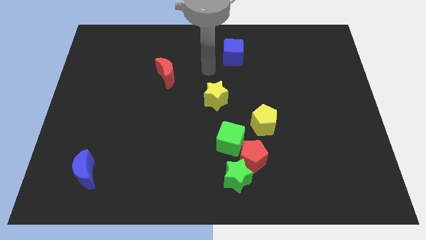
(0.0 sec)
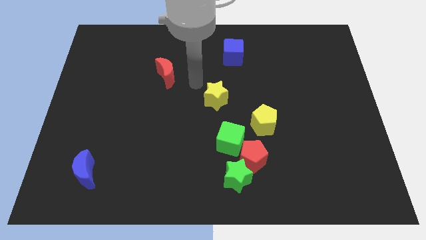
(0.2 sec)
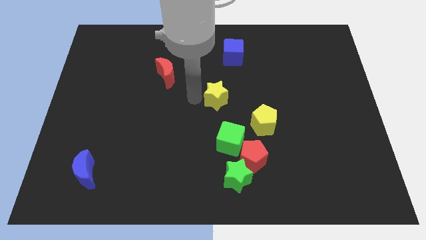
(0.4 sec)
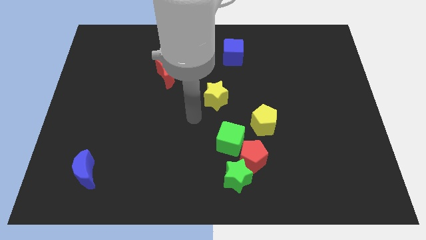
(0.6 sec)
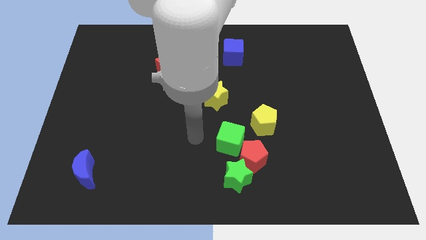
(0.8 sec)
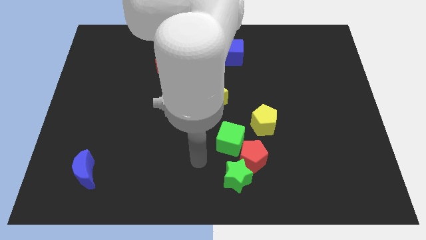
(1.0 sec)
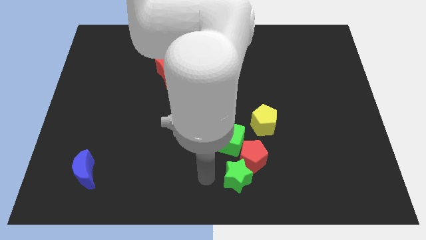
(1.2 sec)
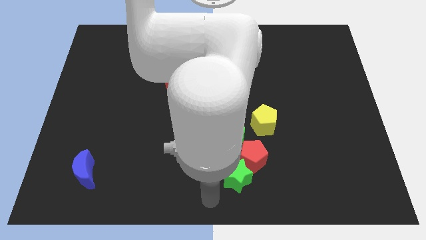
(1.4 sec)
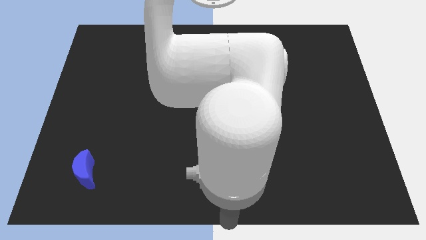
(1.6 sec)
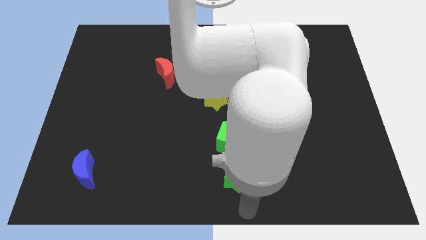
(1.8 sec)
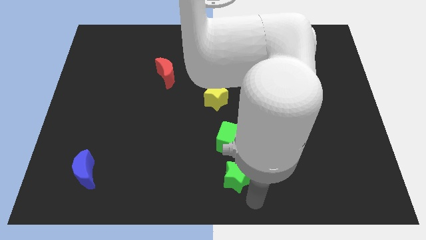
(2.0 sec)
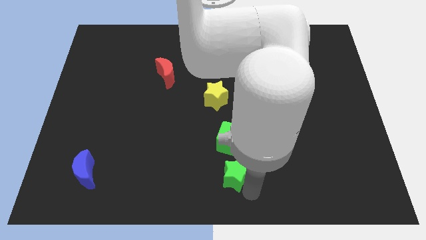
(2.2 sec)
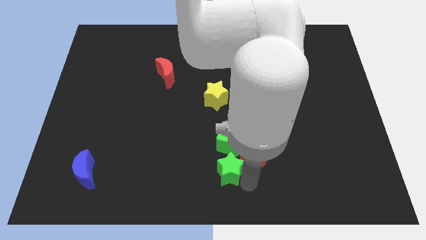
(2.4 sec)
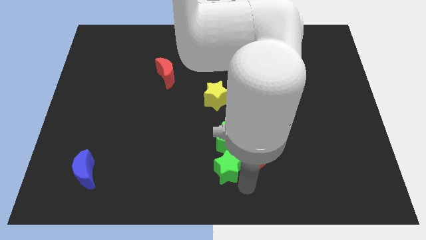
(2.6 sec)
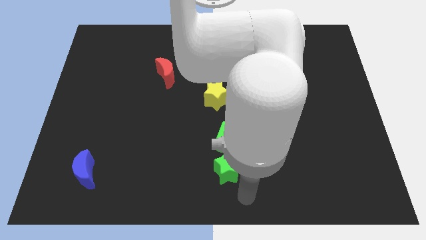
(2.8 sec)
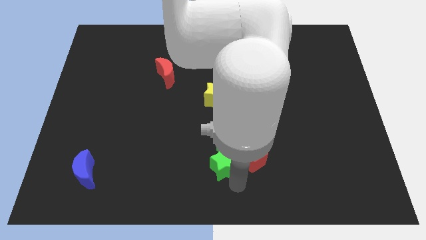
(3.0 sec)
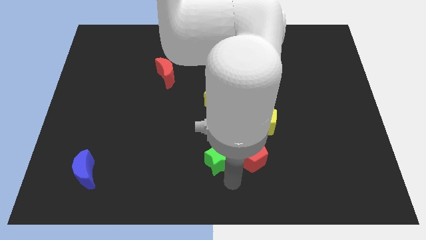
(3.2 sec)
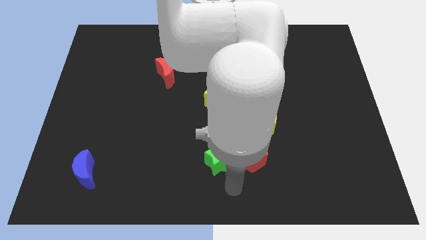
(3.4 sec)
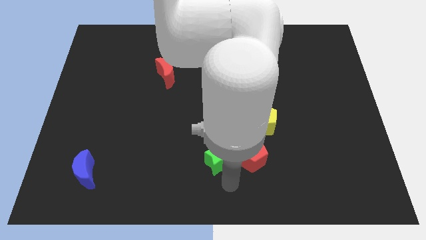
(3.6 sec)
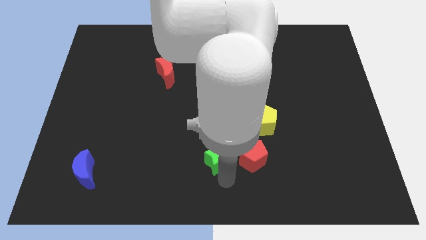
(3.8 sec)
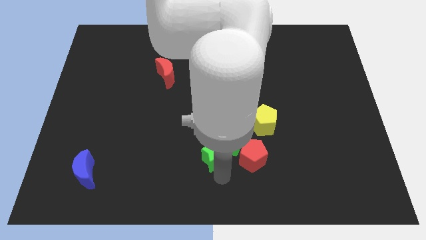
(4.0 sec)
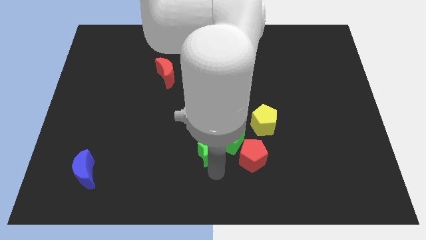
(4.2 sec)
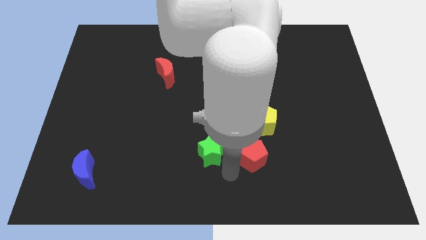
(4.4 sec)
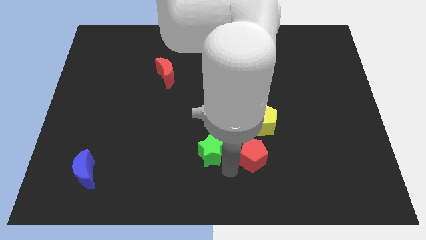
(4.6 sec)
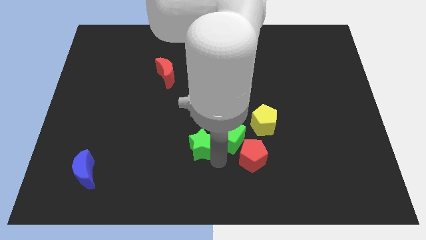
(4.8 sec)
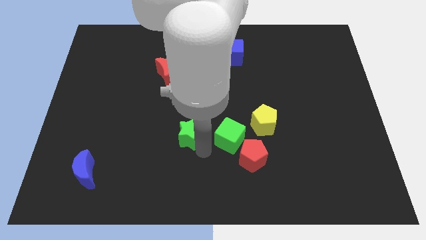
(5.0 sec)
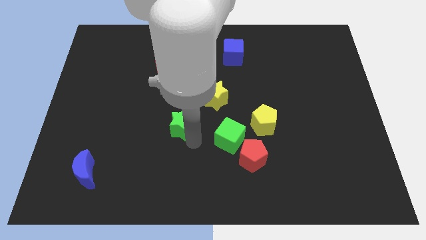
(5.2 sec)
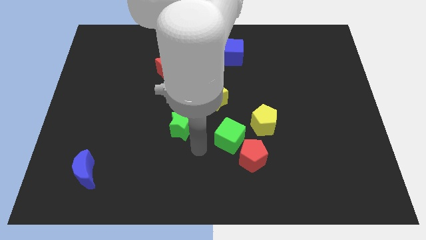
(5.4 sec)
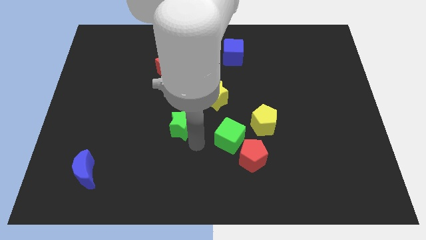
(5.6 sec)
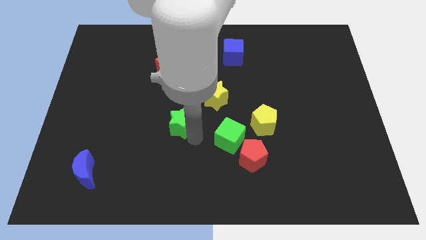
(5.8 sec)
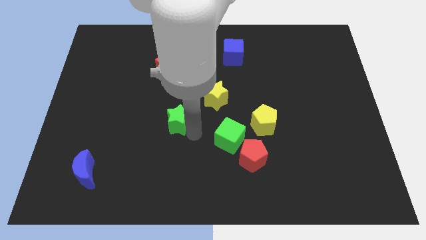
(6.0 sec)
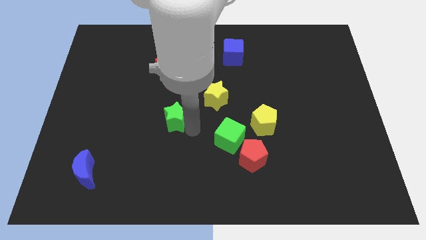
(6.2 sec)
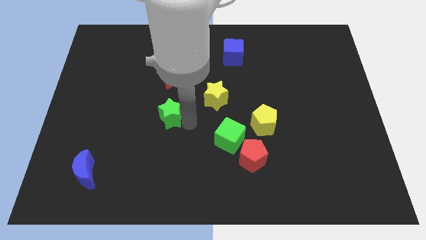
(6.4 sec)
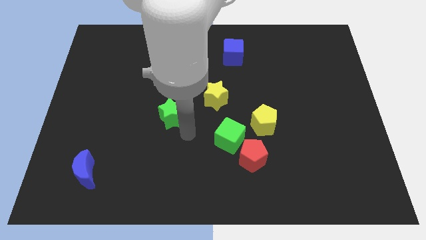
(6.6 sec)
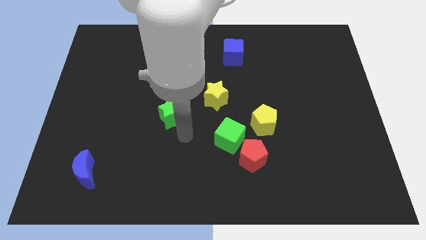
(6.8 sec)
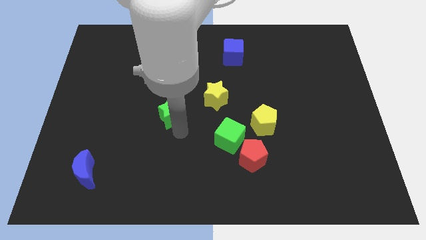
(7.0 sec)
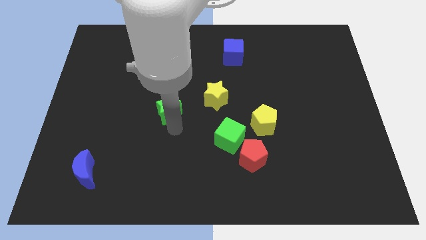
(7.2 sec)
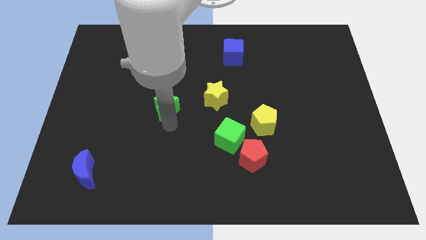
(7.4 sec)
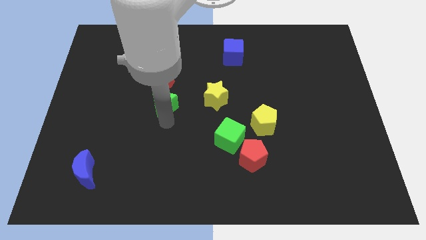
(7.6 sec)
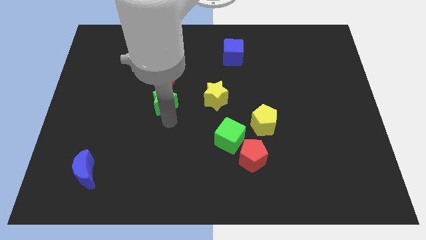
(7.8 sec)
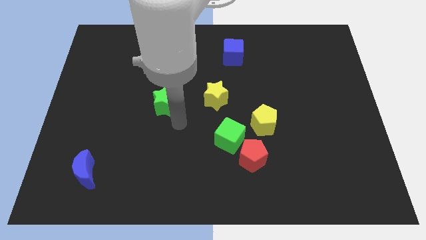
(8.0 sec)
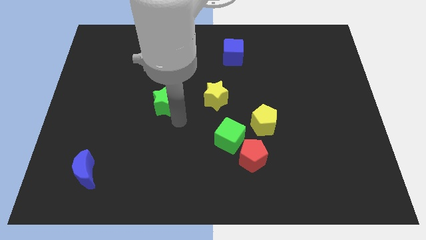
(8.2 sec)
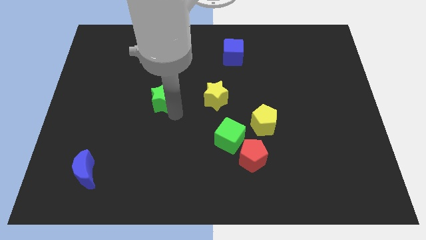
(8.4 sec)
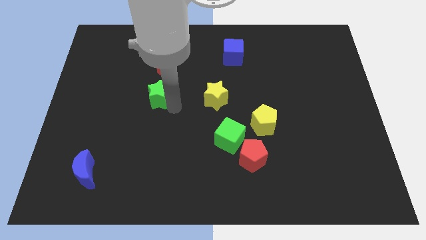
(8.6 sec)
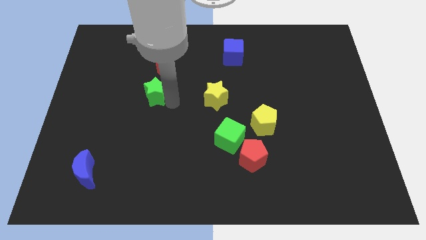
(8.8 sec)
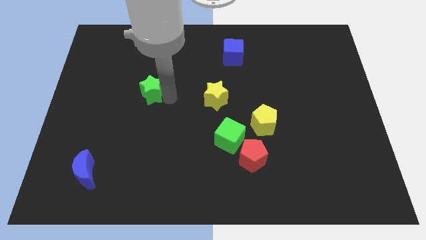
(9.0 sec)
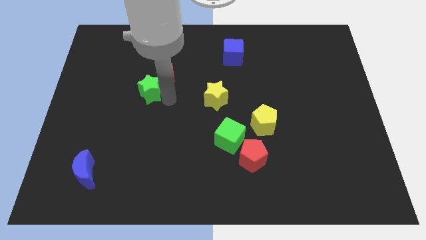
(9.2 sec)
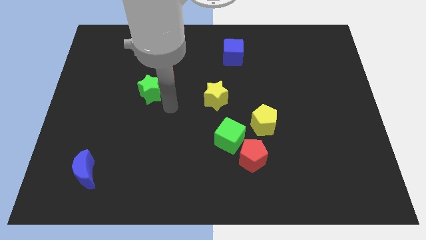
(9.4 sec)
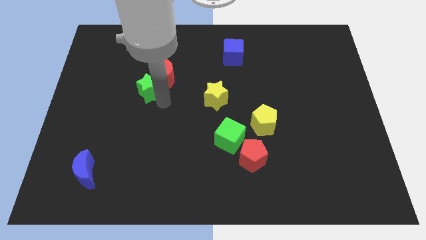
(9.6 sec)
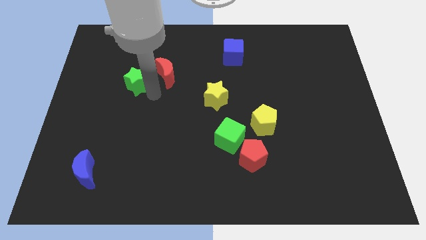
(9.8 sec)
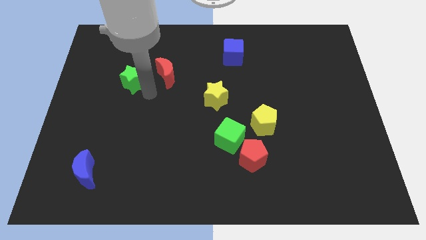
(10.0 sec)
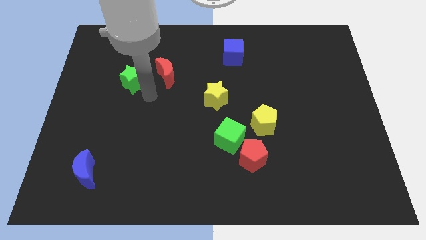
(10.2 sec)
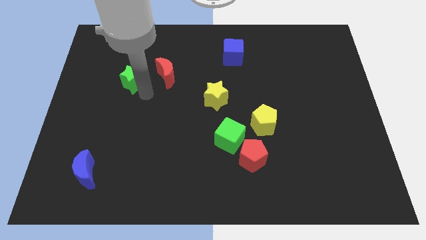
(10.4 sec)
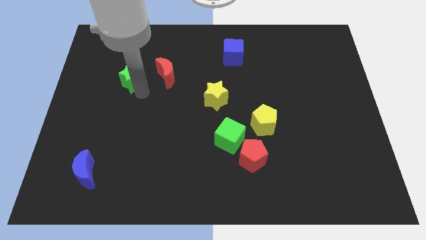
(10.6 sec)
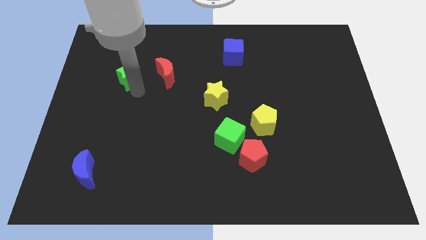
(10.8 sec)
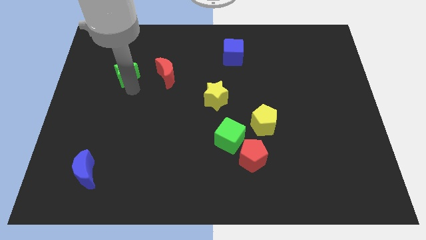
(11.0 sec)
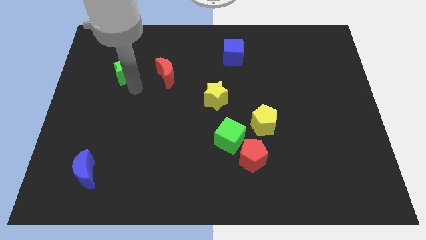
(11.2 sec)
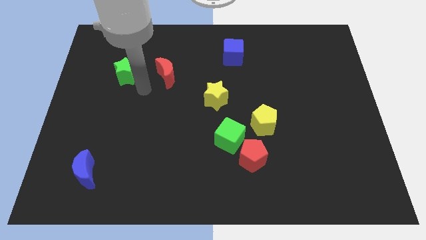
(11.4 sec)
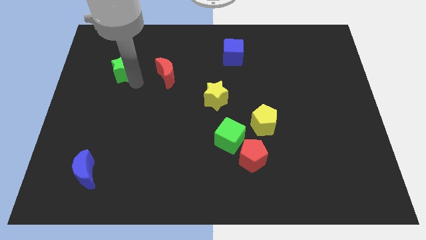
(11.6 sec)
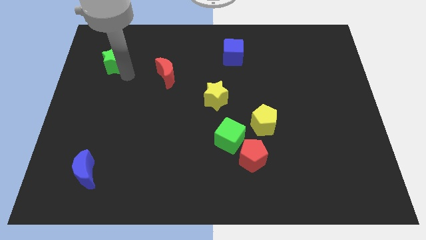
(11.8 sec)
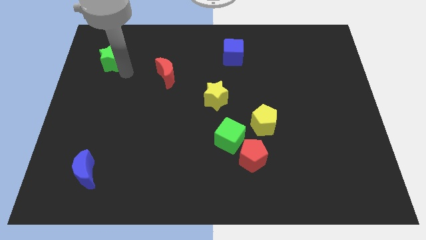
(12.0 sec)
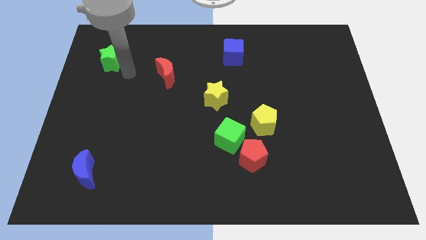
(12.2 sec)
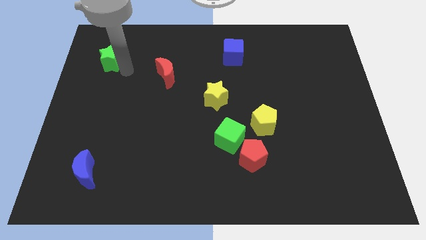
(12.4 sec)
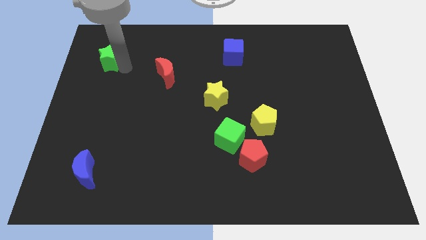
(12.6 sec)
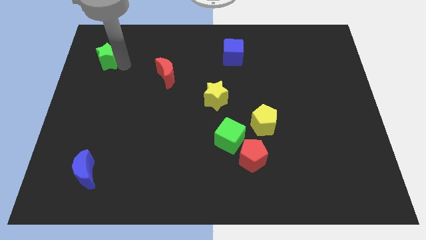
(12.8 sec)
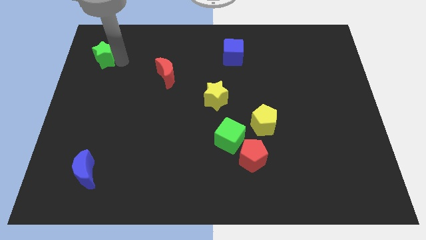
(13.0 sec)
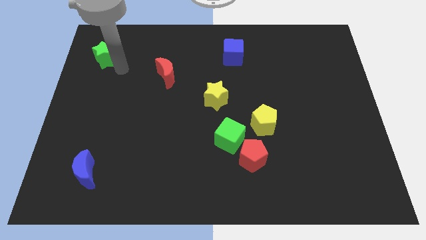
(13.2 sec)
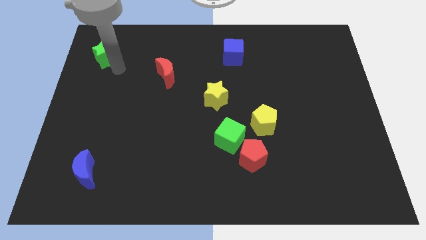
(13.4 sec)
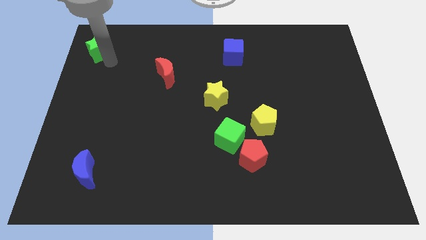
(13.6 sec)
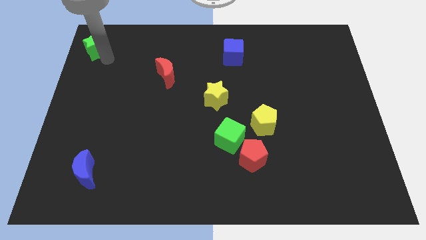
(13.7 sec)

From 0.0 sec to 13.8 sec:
put the green star to the top left of the board
